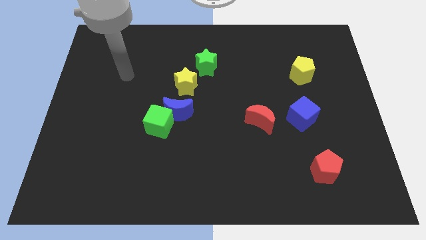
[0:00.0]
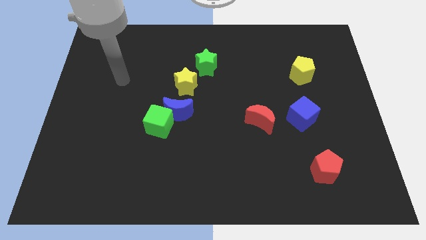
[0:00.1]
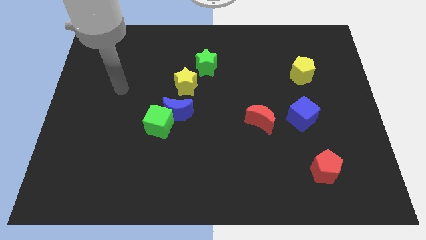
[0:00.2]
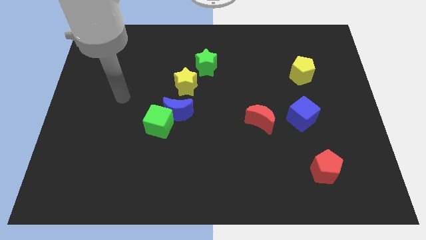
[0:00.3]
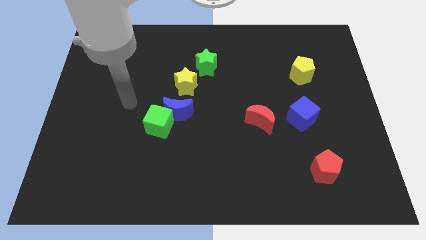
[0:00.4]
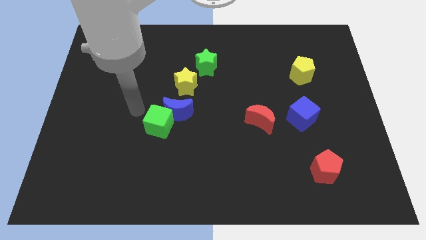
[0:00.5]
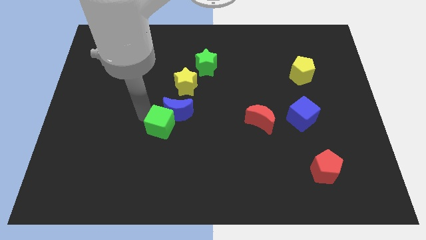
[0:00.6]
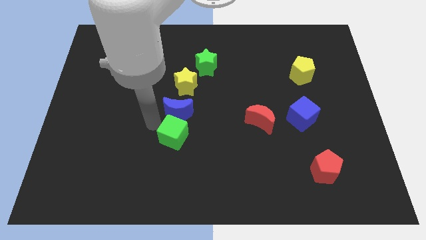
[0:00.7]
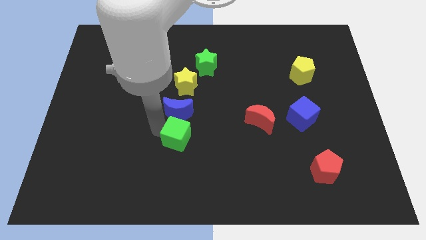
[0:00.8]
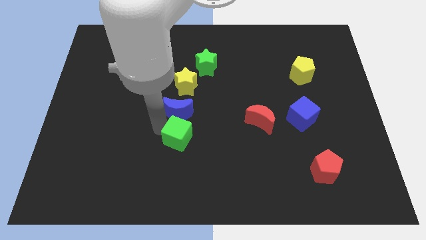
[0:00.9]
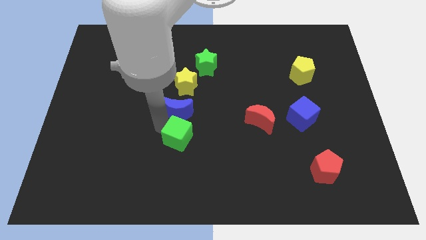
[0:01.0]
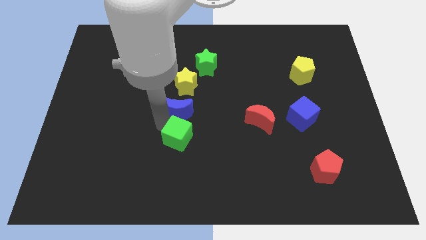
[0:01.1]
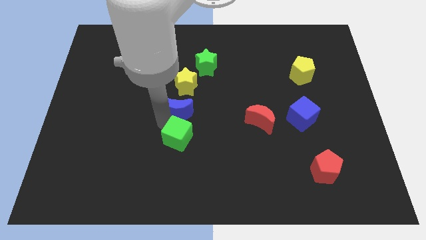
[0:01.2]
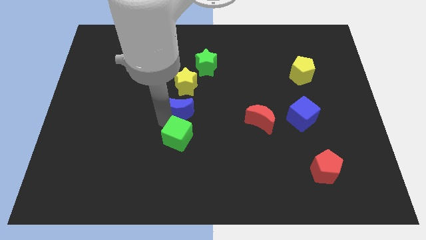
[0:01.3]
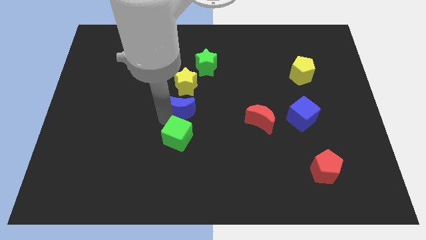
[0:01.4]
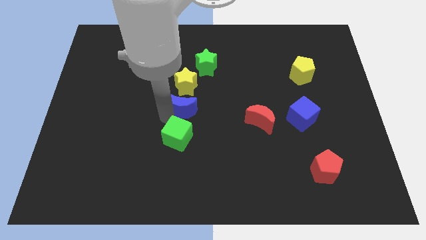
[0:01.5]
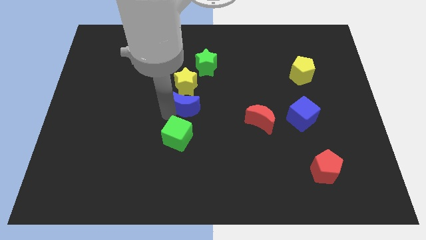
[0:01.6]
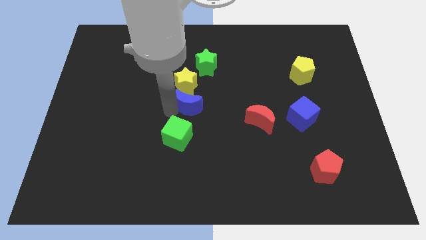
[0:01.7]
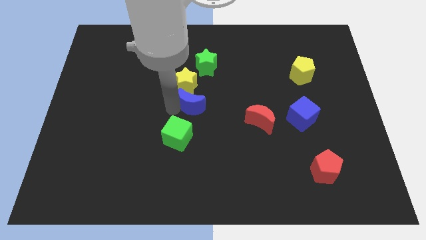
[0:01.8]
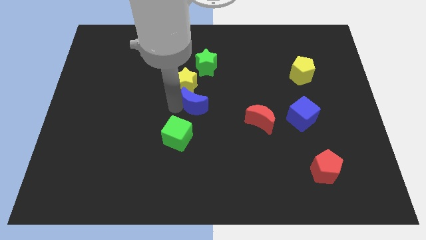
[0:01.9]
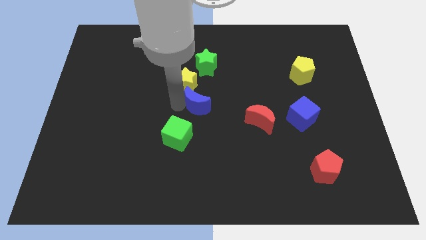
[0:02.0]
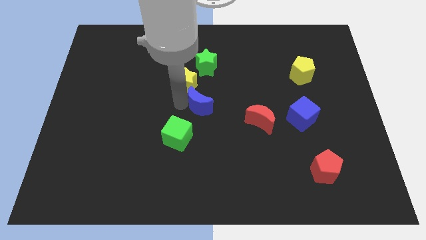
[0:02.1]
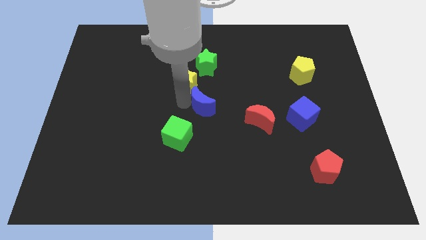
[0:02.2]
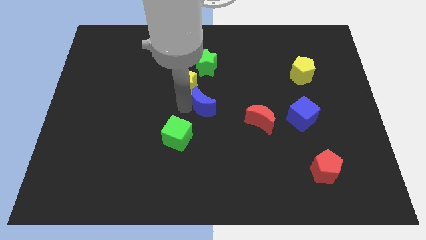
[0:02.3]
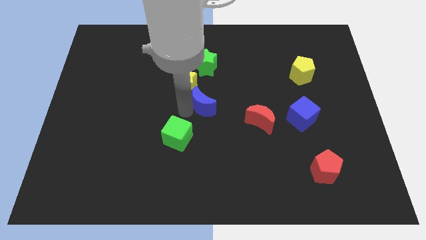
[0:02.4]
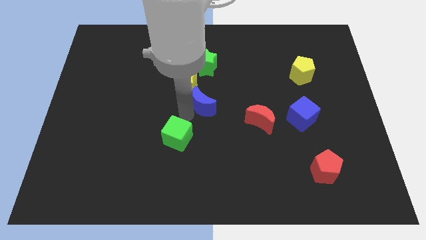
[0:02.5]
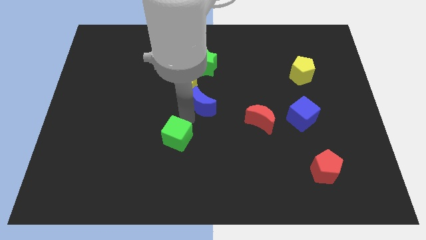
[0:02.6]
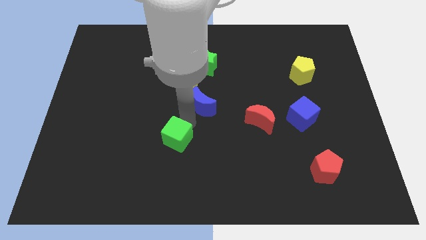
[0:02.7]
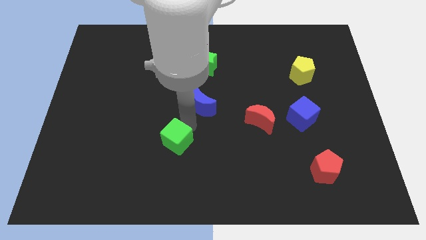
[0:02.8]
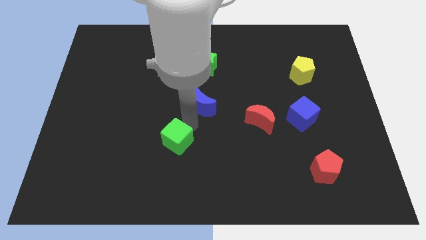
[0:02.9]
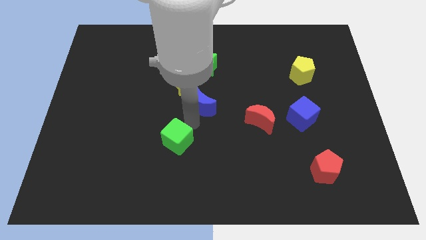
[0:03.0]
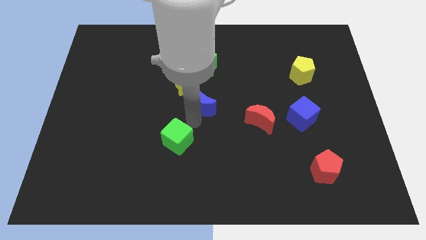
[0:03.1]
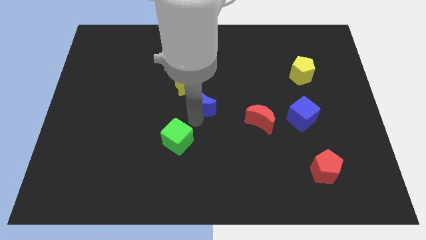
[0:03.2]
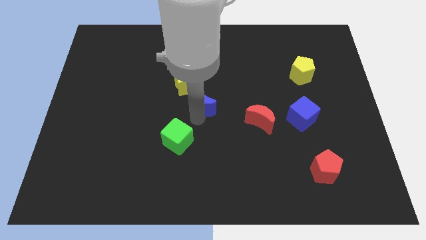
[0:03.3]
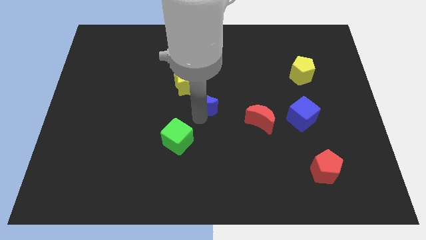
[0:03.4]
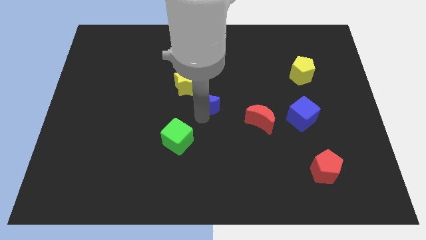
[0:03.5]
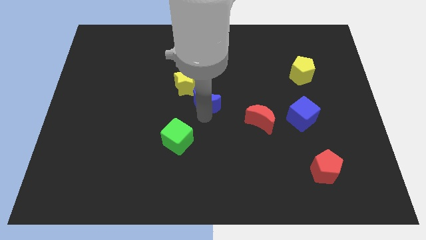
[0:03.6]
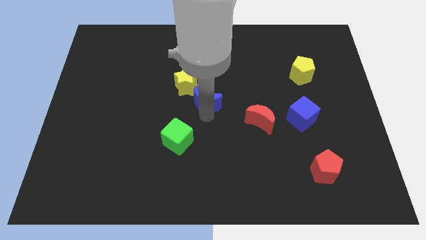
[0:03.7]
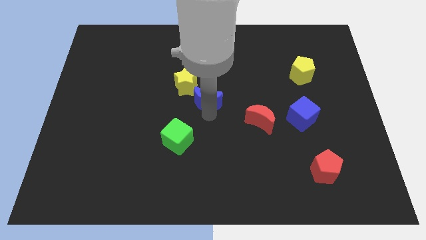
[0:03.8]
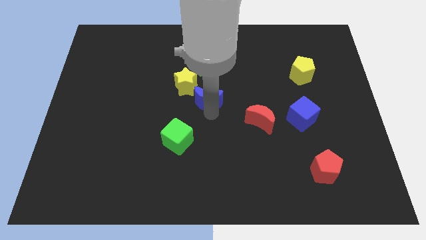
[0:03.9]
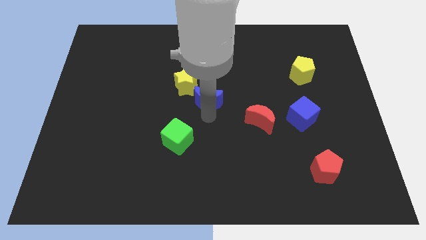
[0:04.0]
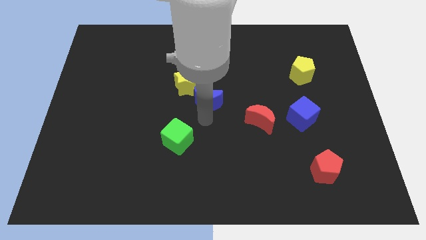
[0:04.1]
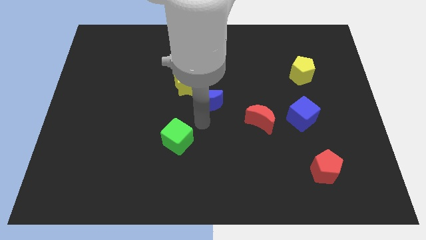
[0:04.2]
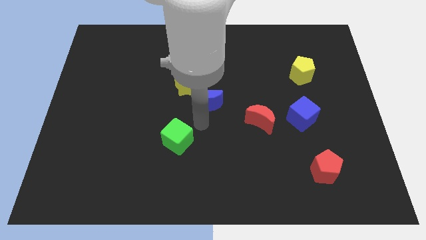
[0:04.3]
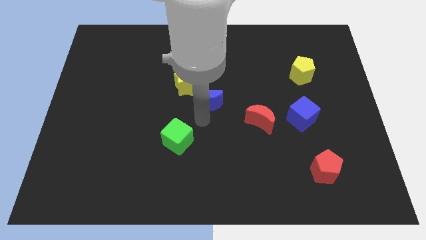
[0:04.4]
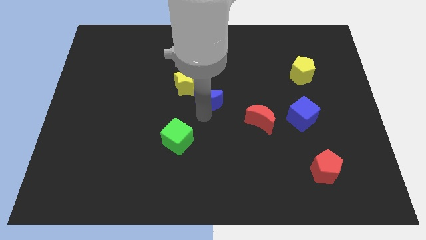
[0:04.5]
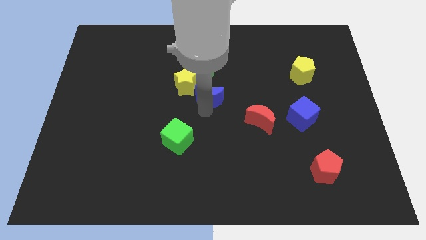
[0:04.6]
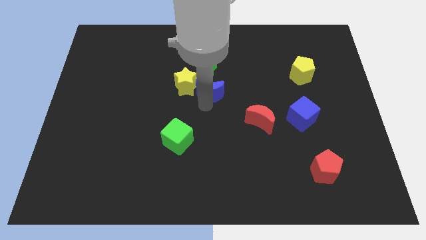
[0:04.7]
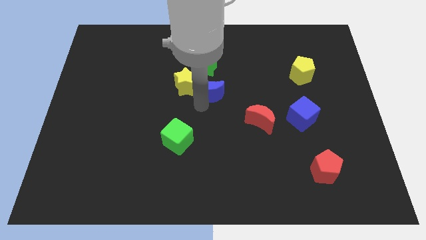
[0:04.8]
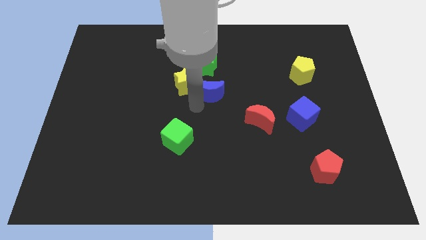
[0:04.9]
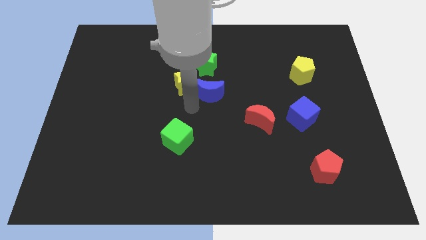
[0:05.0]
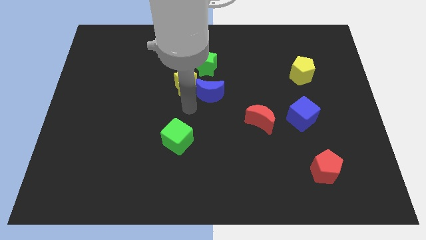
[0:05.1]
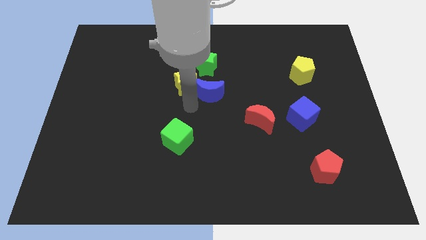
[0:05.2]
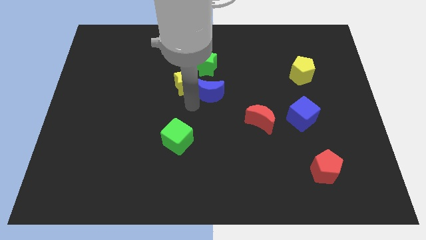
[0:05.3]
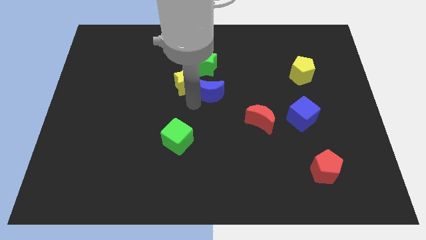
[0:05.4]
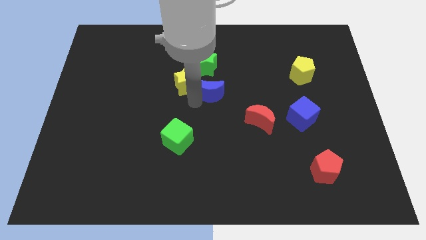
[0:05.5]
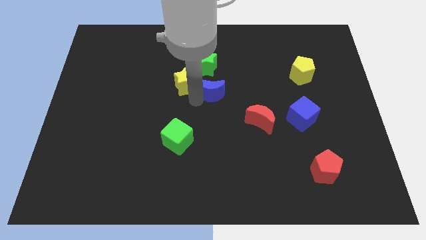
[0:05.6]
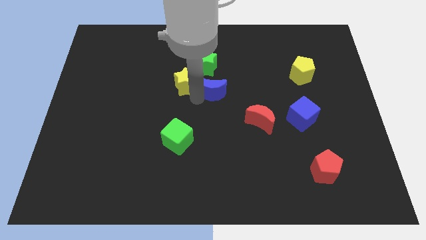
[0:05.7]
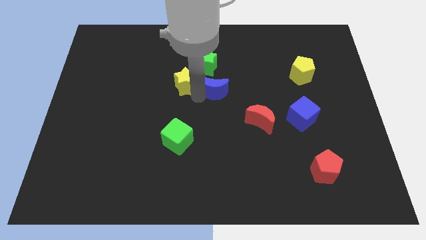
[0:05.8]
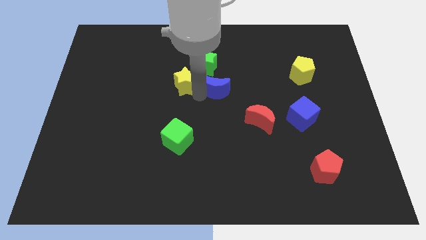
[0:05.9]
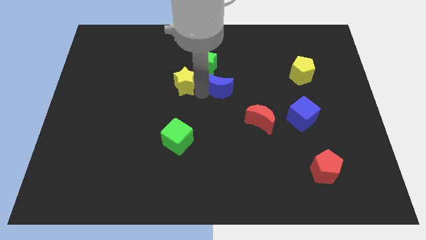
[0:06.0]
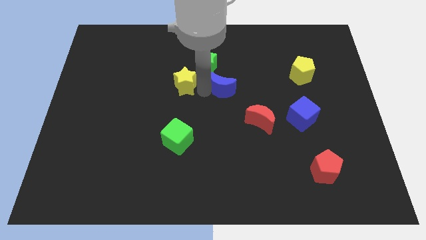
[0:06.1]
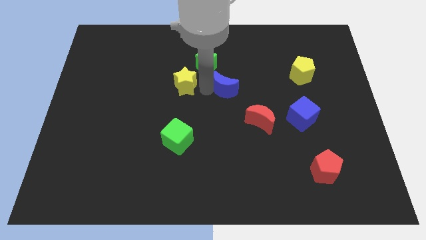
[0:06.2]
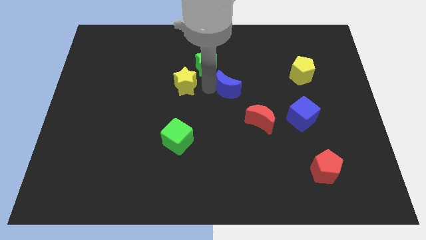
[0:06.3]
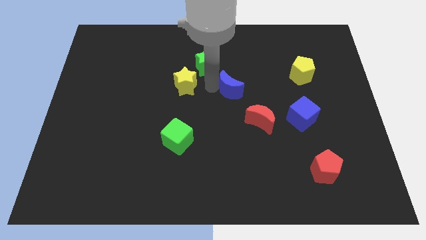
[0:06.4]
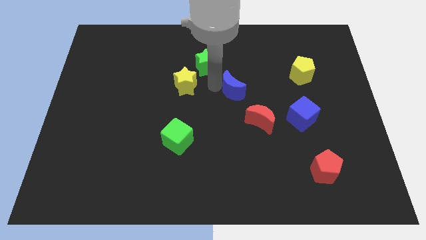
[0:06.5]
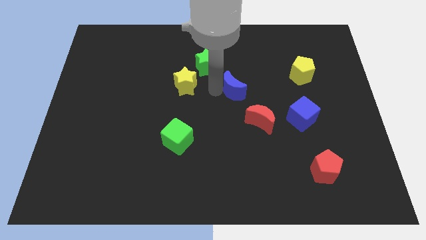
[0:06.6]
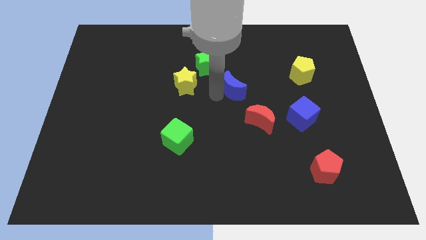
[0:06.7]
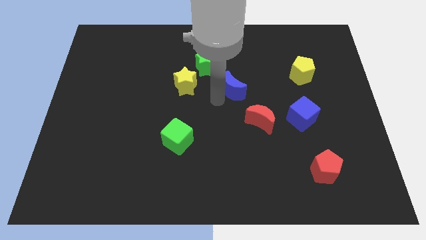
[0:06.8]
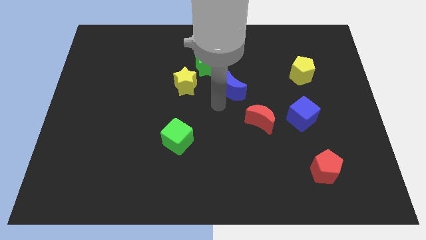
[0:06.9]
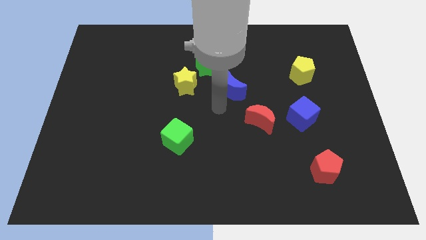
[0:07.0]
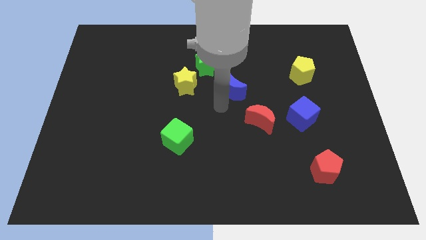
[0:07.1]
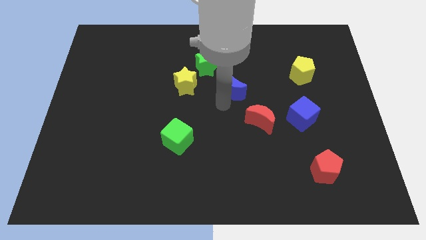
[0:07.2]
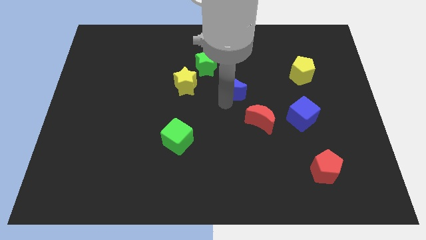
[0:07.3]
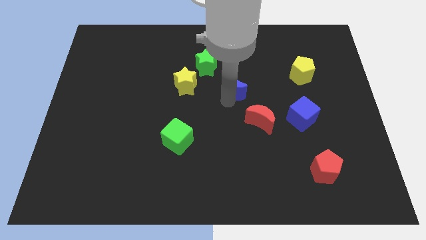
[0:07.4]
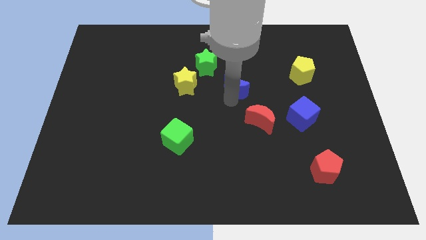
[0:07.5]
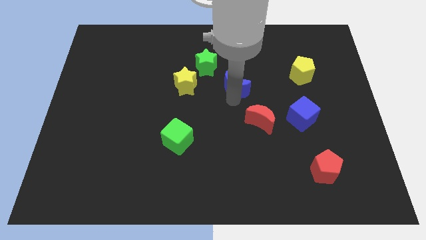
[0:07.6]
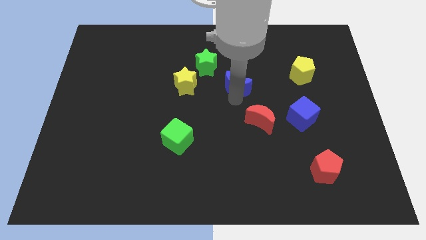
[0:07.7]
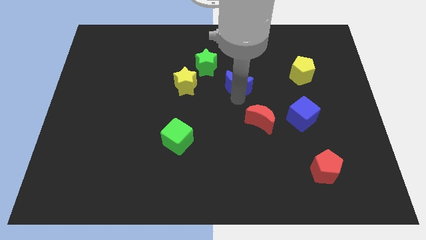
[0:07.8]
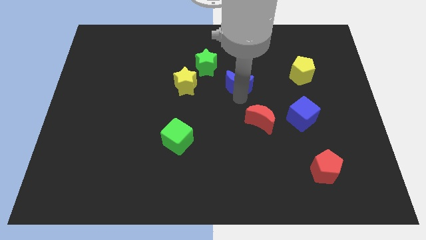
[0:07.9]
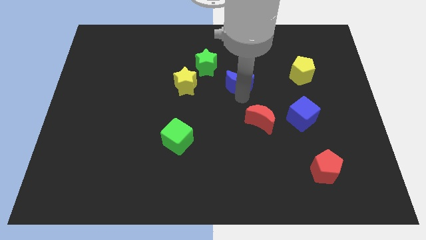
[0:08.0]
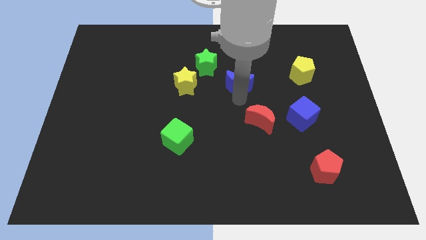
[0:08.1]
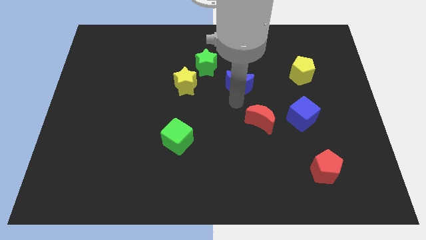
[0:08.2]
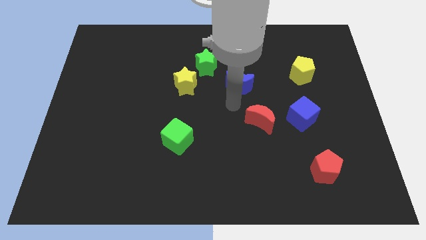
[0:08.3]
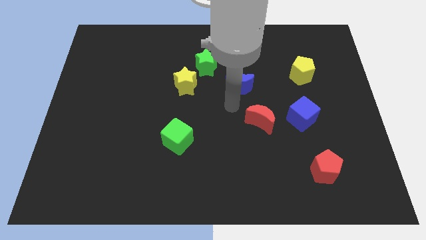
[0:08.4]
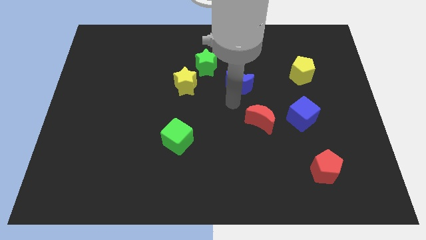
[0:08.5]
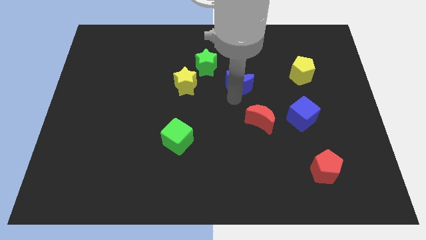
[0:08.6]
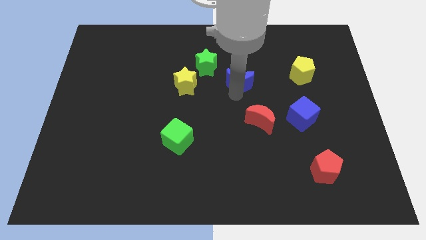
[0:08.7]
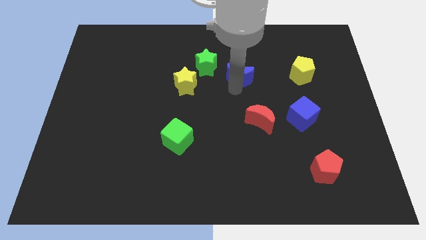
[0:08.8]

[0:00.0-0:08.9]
push the blue moon left of the yellow pentagon
